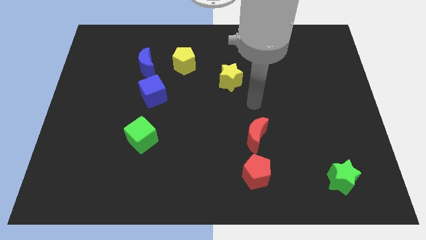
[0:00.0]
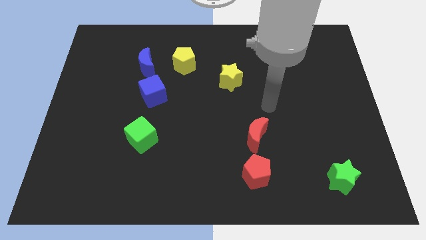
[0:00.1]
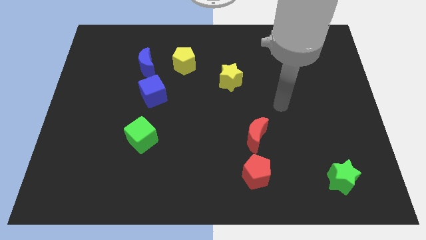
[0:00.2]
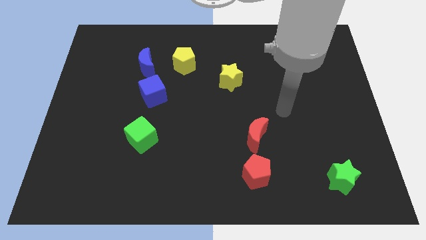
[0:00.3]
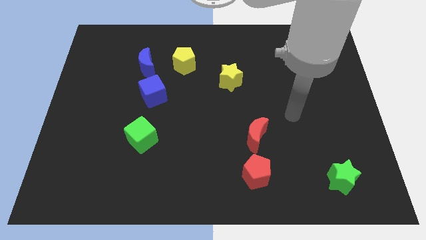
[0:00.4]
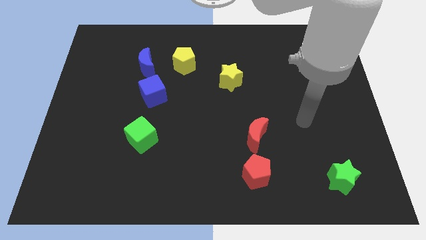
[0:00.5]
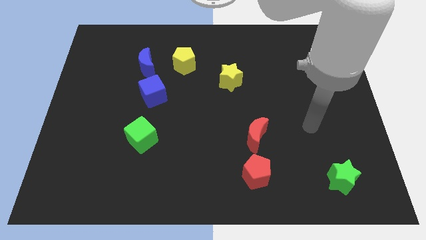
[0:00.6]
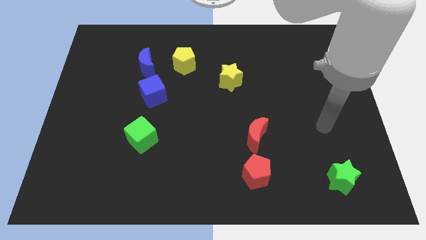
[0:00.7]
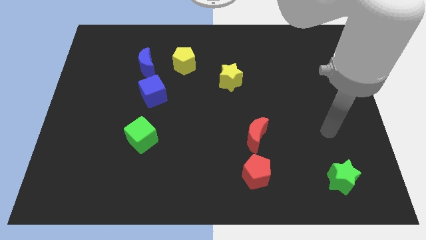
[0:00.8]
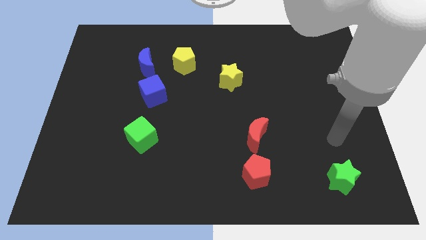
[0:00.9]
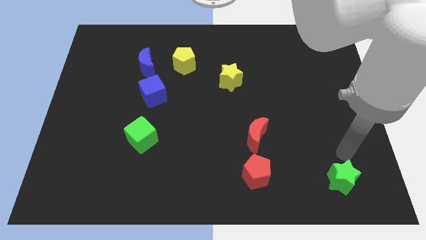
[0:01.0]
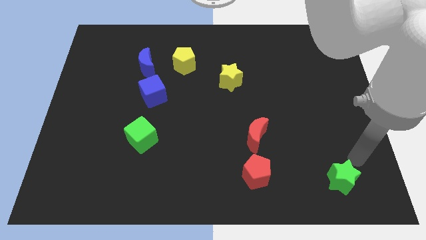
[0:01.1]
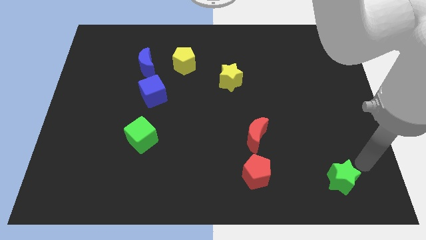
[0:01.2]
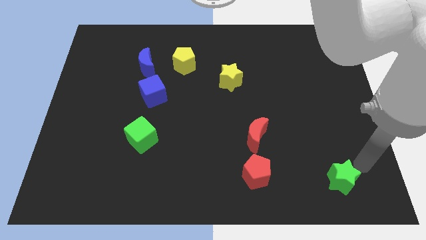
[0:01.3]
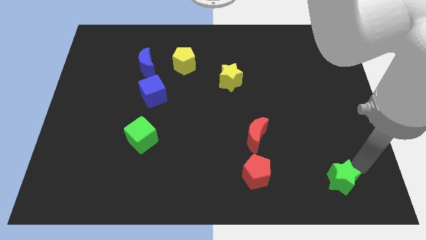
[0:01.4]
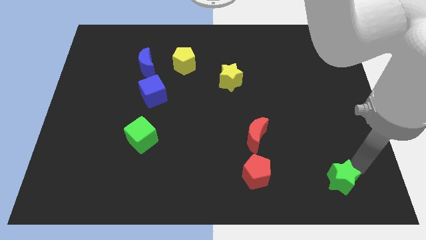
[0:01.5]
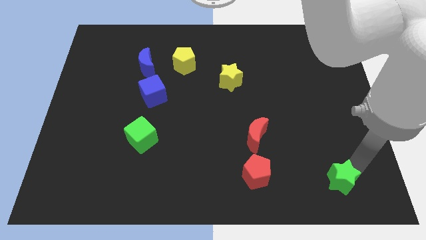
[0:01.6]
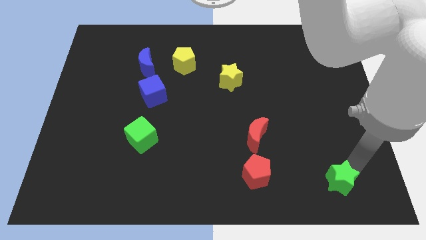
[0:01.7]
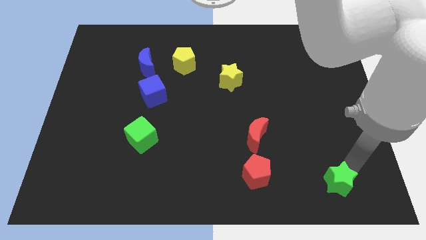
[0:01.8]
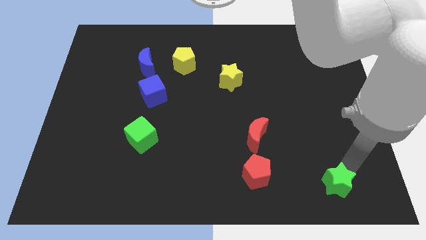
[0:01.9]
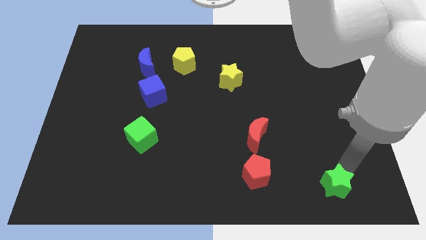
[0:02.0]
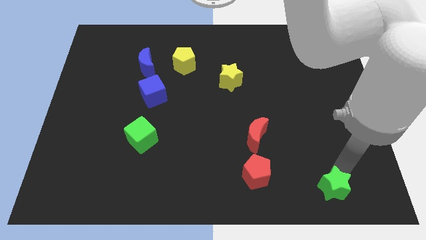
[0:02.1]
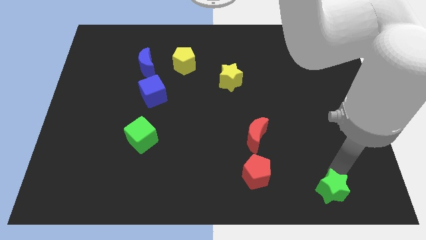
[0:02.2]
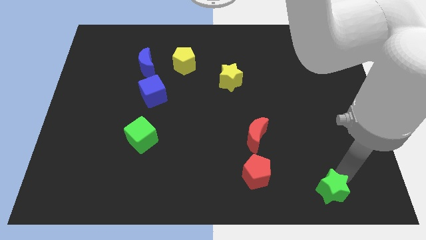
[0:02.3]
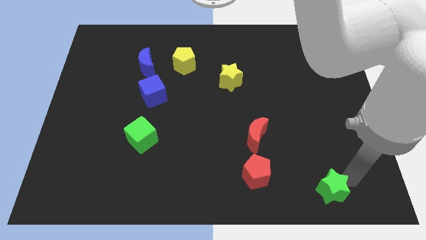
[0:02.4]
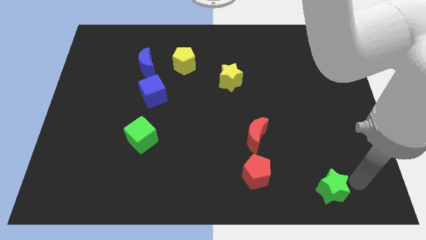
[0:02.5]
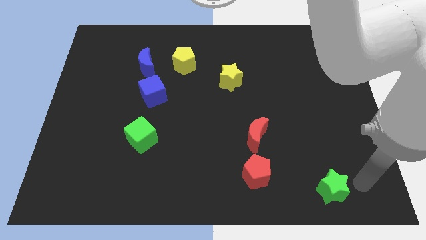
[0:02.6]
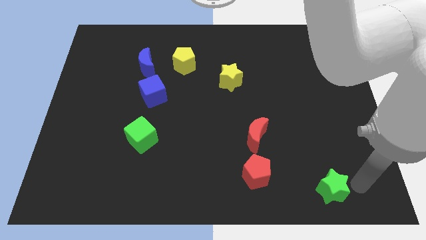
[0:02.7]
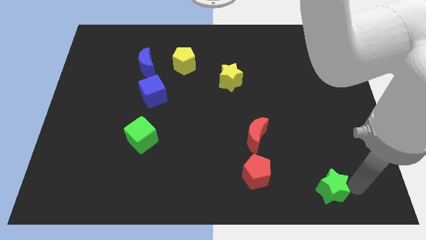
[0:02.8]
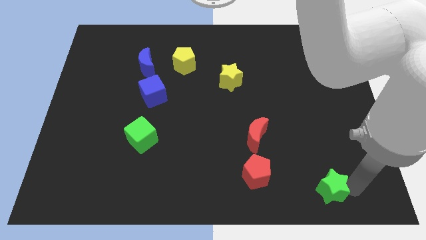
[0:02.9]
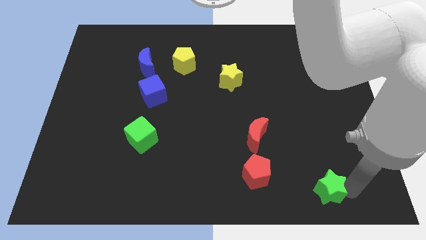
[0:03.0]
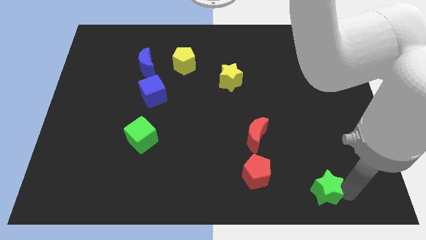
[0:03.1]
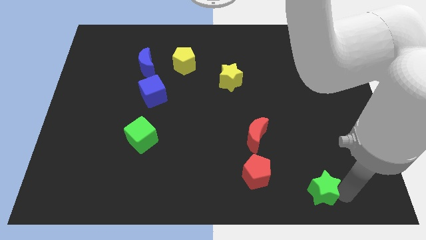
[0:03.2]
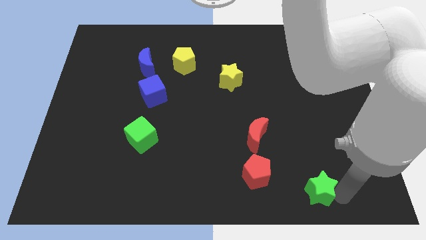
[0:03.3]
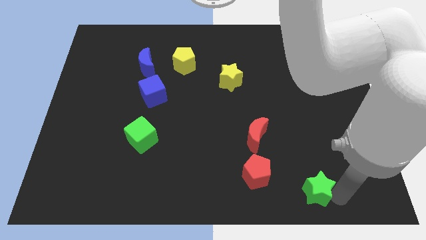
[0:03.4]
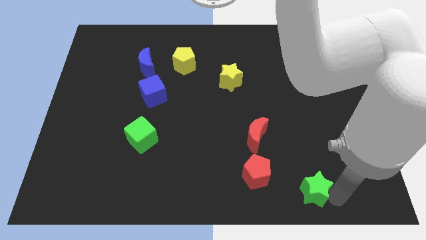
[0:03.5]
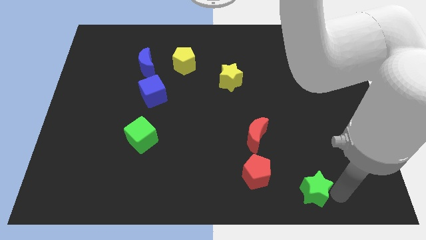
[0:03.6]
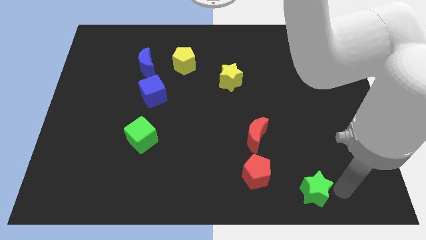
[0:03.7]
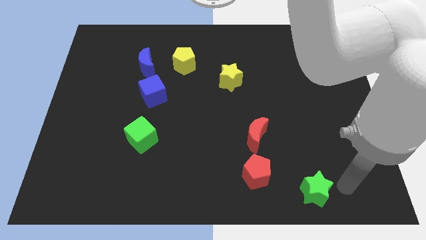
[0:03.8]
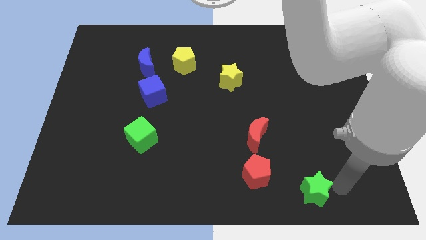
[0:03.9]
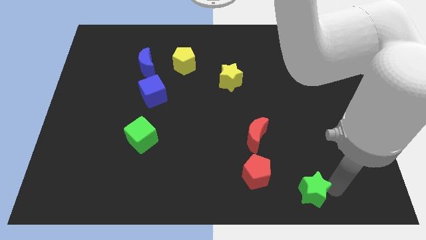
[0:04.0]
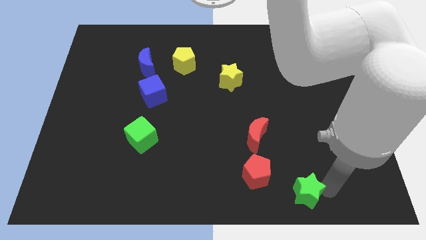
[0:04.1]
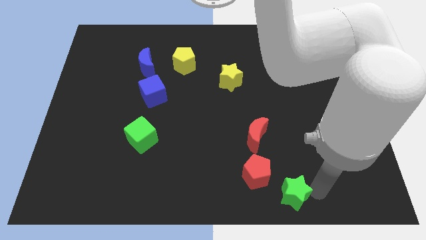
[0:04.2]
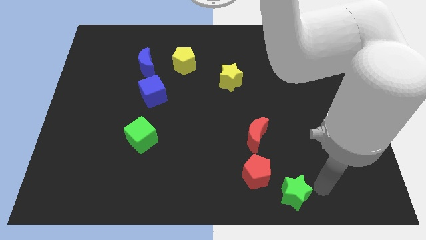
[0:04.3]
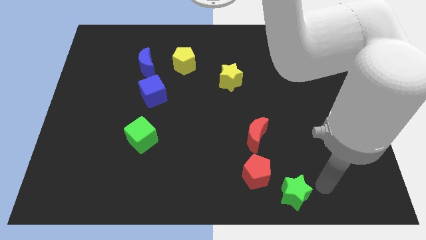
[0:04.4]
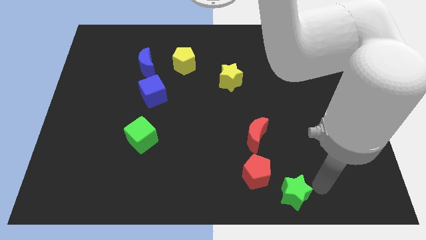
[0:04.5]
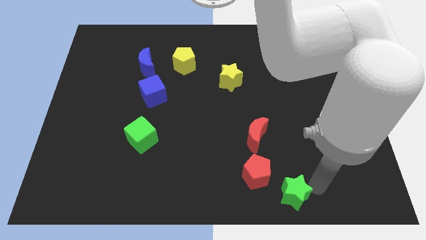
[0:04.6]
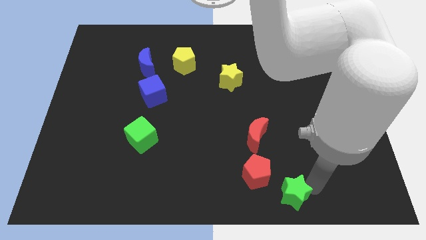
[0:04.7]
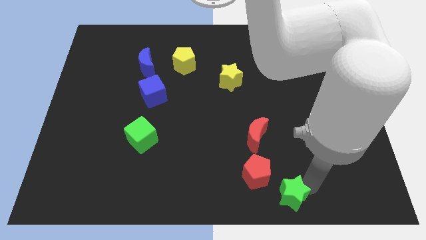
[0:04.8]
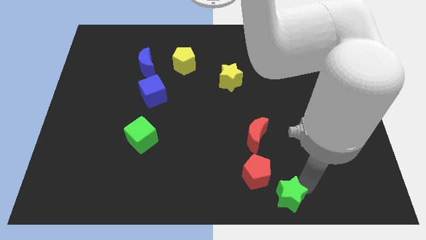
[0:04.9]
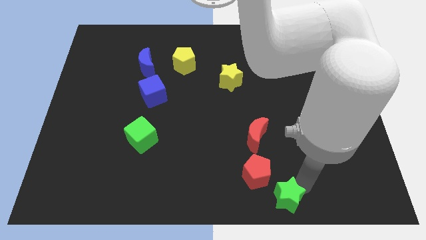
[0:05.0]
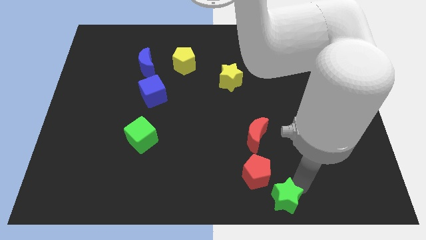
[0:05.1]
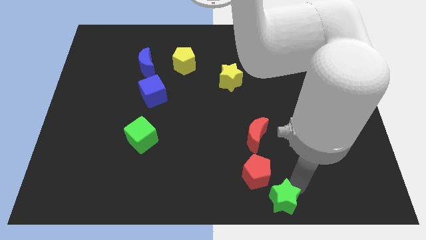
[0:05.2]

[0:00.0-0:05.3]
put the green star to the bottom

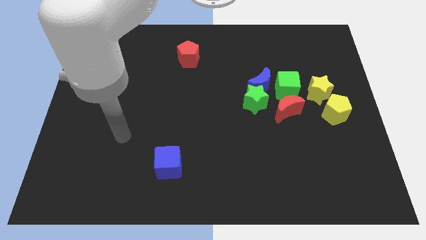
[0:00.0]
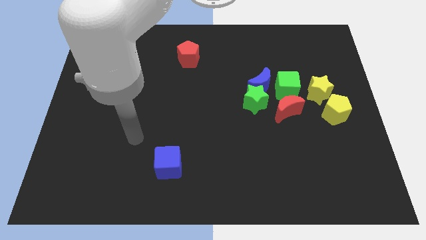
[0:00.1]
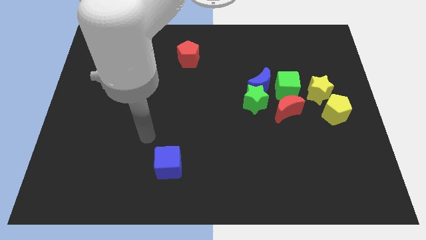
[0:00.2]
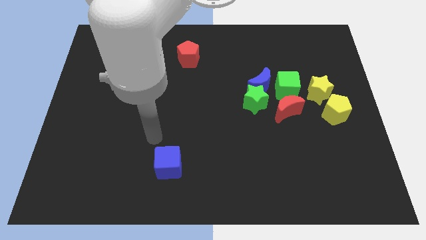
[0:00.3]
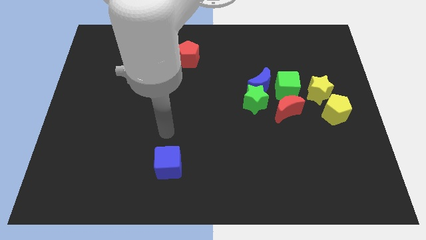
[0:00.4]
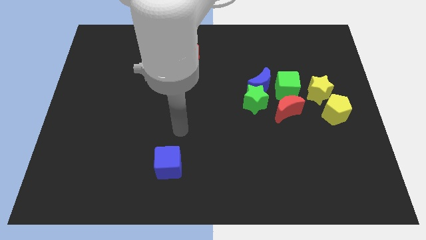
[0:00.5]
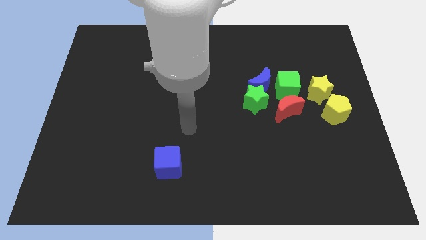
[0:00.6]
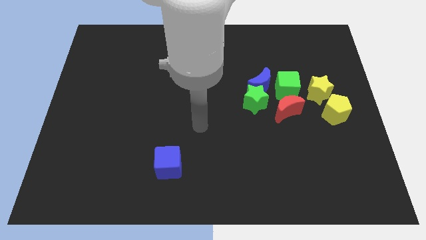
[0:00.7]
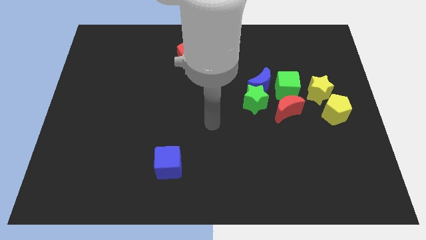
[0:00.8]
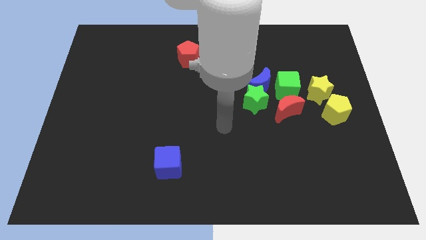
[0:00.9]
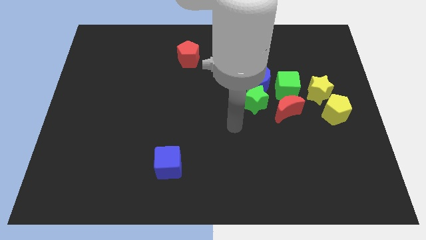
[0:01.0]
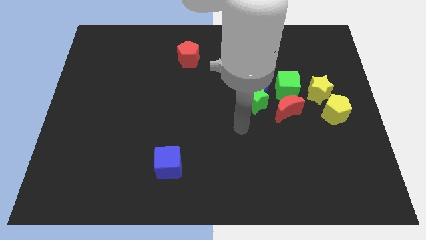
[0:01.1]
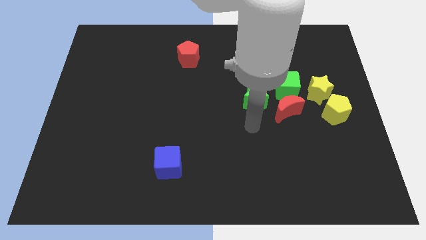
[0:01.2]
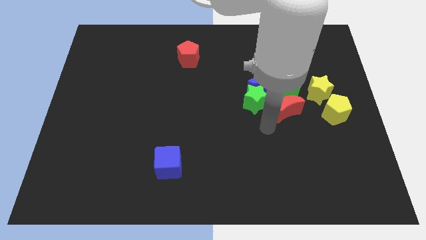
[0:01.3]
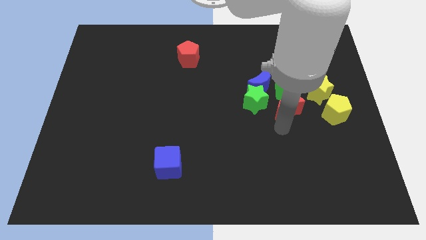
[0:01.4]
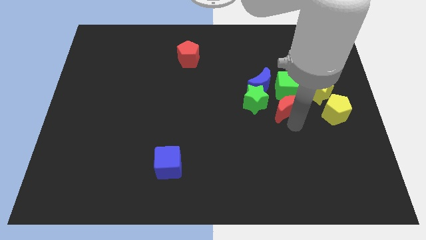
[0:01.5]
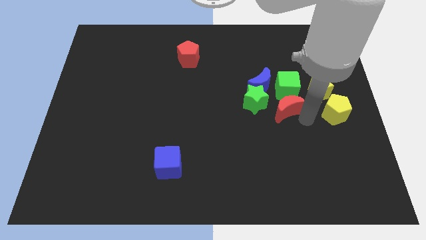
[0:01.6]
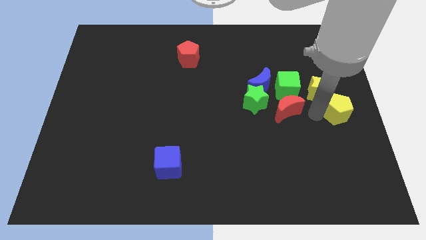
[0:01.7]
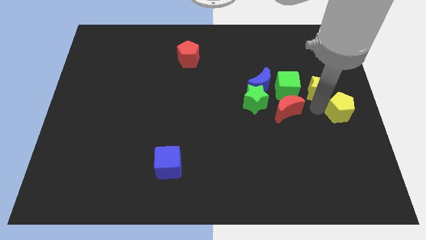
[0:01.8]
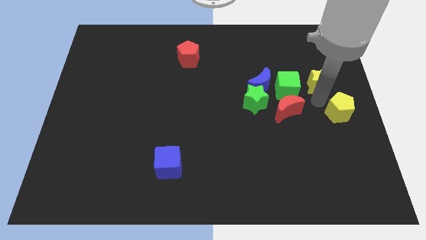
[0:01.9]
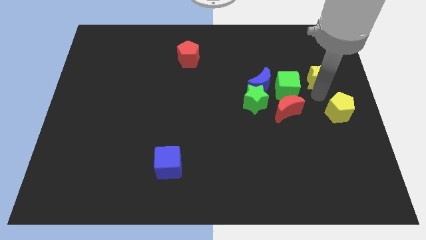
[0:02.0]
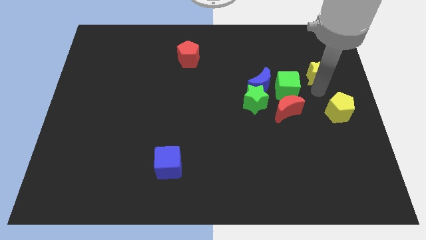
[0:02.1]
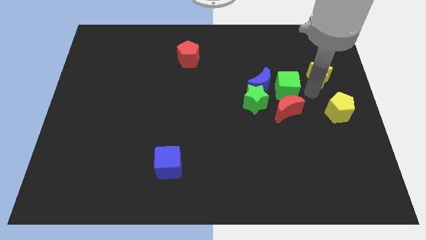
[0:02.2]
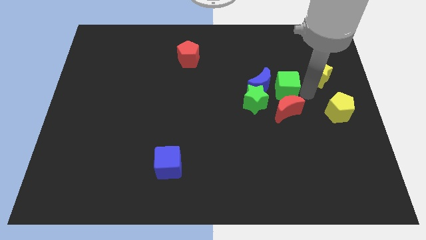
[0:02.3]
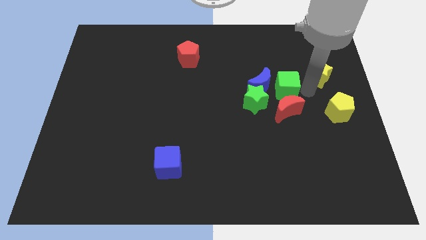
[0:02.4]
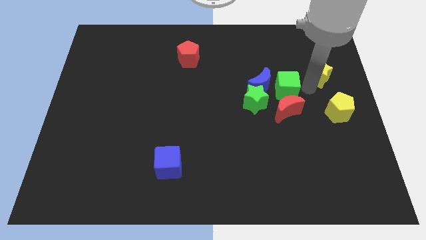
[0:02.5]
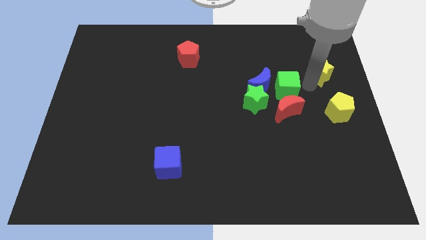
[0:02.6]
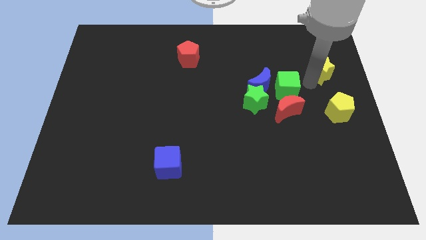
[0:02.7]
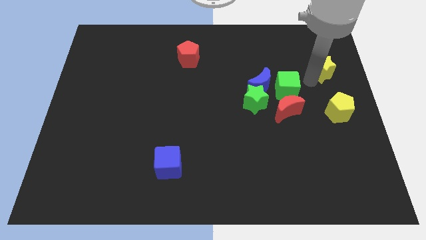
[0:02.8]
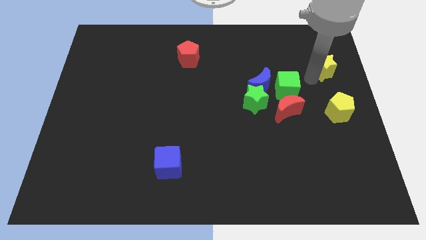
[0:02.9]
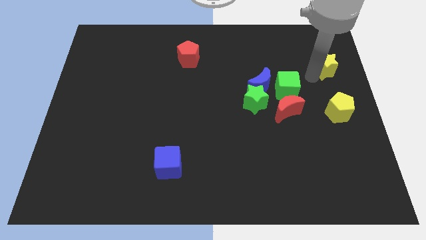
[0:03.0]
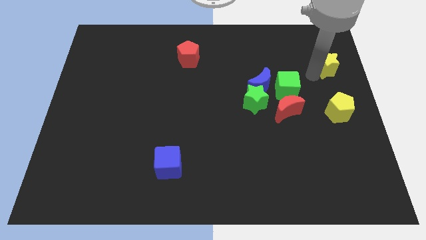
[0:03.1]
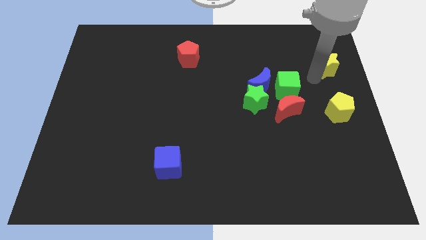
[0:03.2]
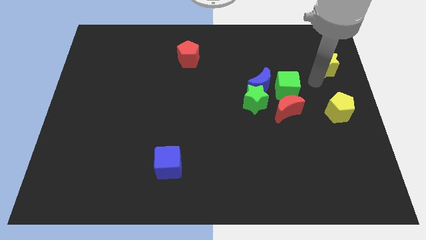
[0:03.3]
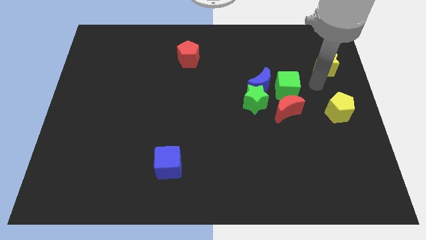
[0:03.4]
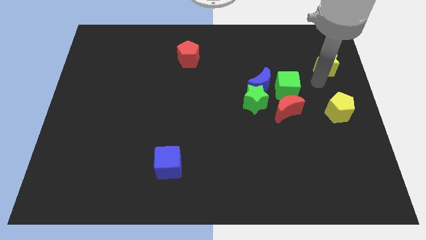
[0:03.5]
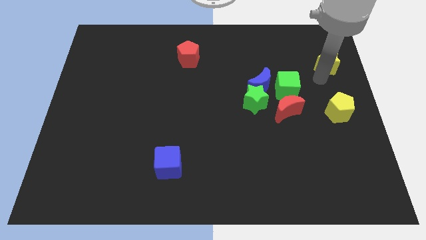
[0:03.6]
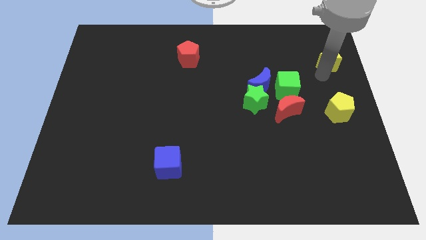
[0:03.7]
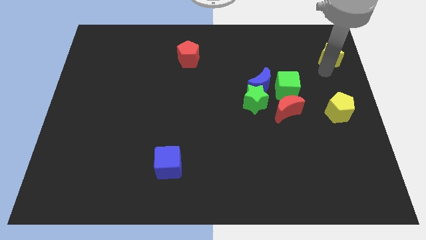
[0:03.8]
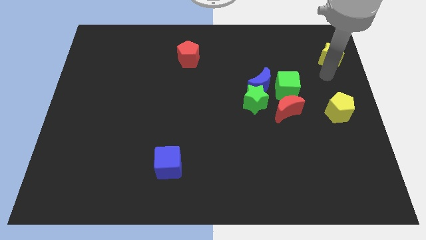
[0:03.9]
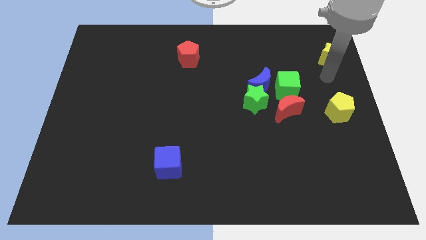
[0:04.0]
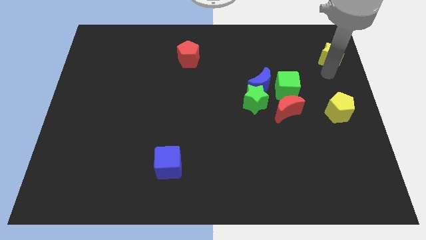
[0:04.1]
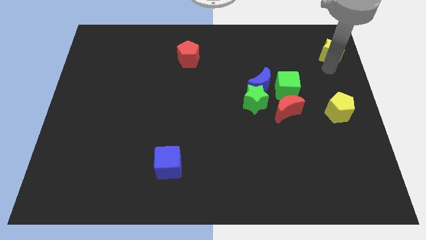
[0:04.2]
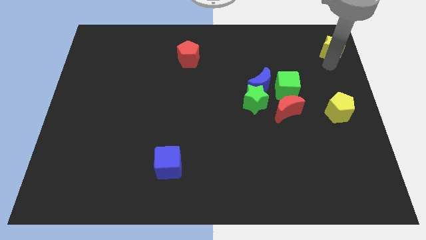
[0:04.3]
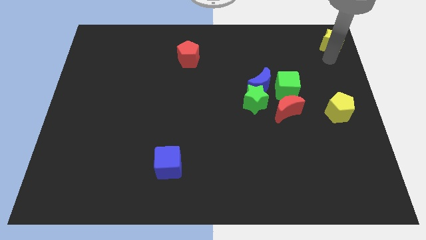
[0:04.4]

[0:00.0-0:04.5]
slide the yellow star to the upper right corner
